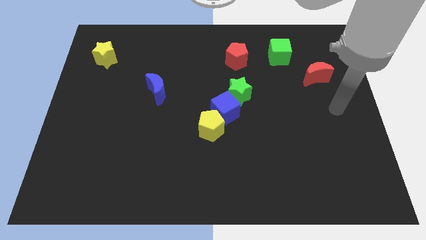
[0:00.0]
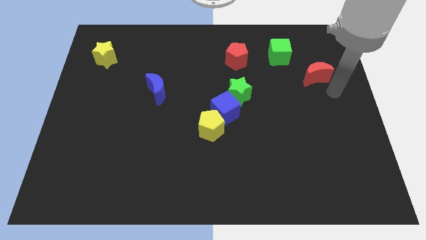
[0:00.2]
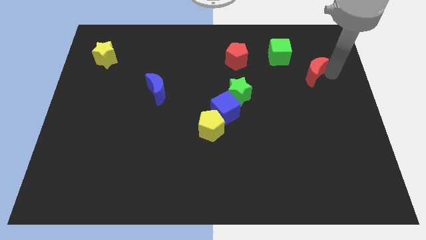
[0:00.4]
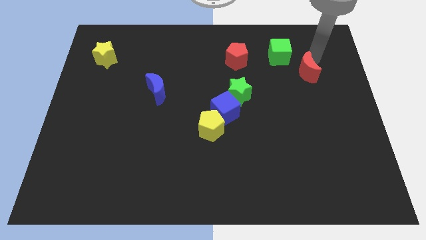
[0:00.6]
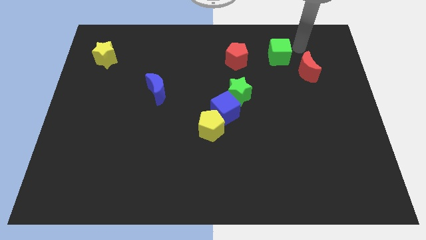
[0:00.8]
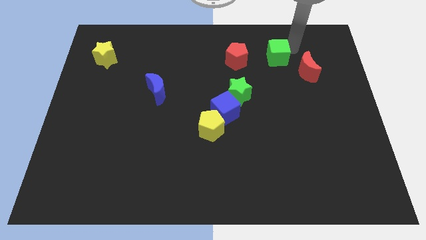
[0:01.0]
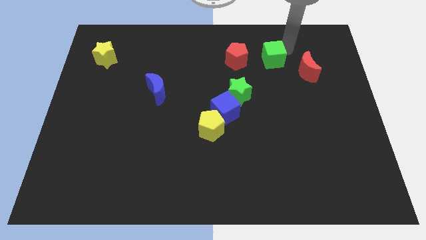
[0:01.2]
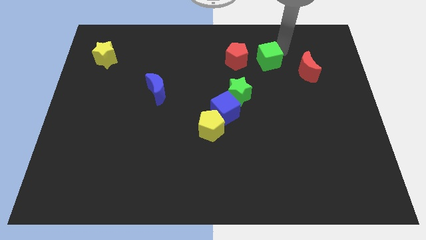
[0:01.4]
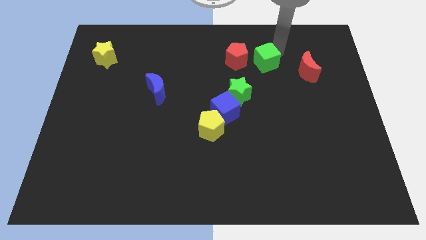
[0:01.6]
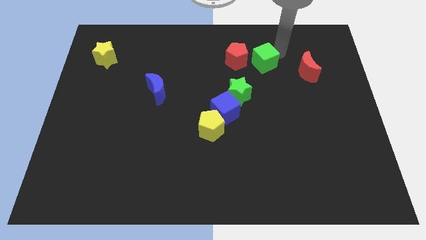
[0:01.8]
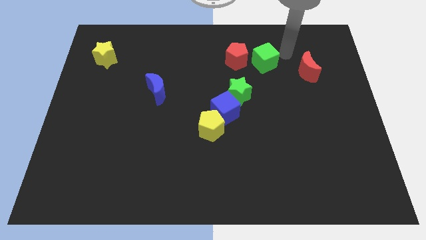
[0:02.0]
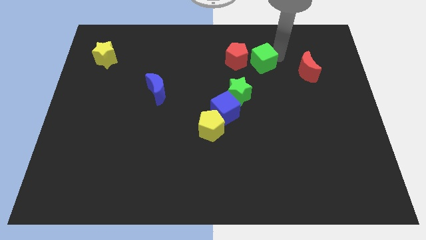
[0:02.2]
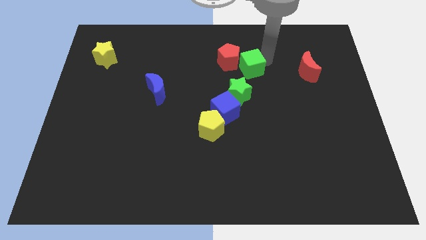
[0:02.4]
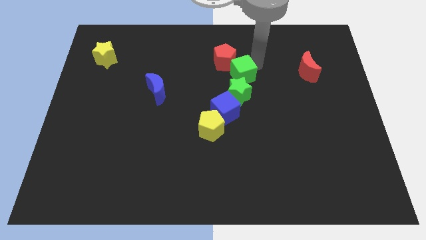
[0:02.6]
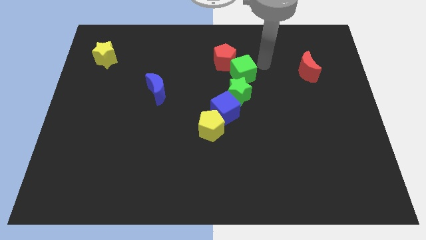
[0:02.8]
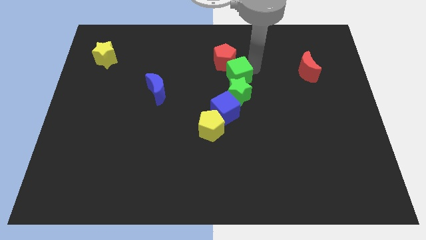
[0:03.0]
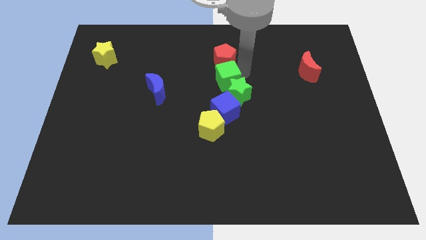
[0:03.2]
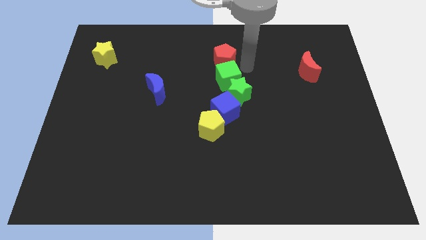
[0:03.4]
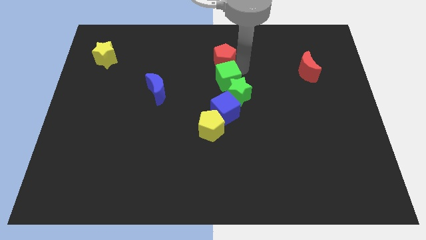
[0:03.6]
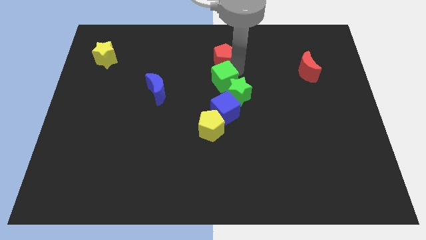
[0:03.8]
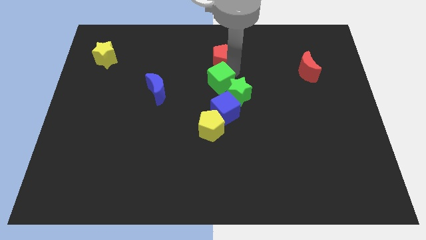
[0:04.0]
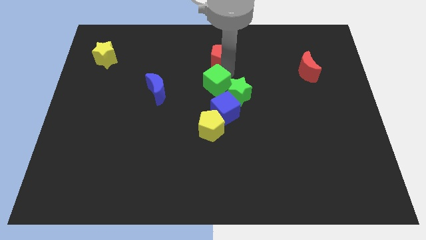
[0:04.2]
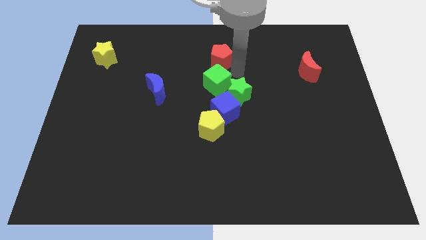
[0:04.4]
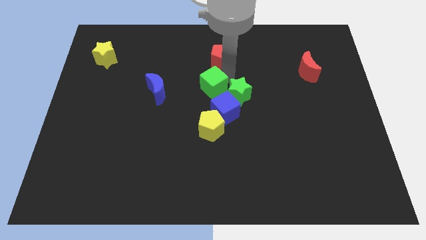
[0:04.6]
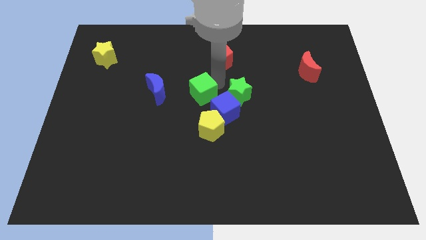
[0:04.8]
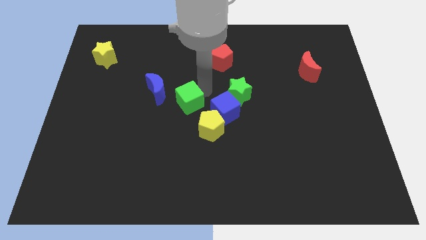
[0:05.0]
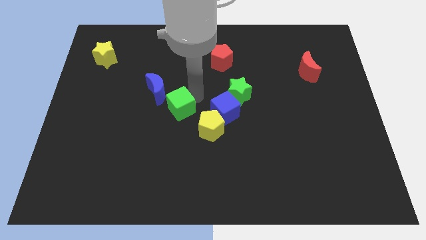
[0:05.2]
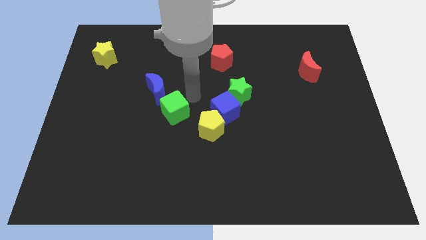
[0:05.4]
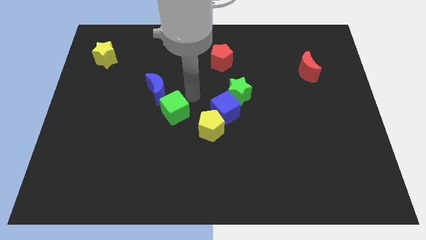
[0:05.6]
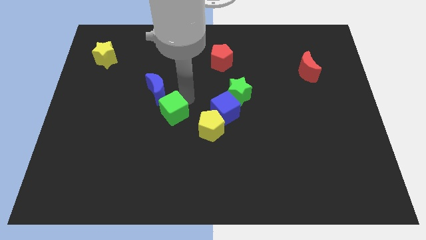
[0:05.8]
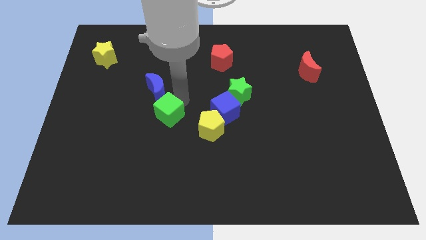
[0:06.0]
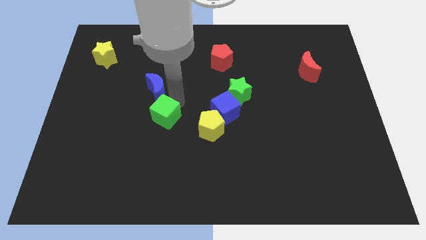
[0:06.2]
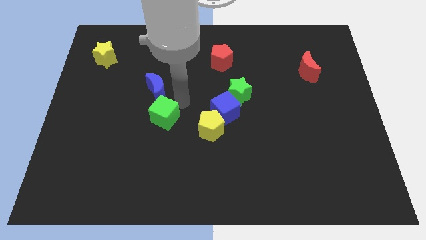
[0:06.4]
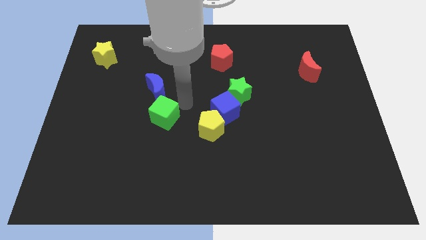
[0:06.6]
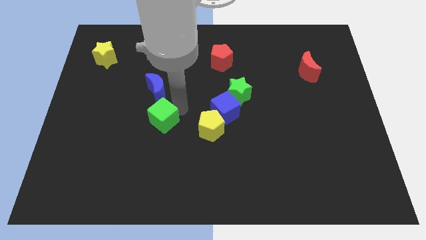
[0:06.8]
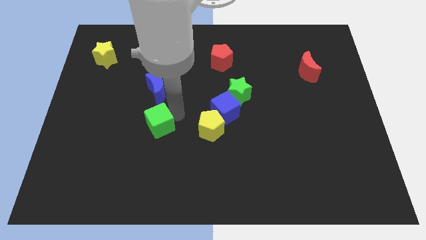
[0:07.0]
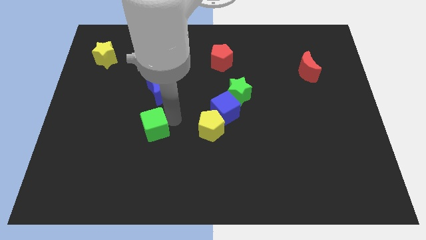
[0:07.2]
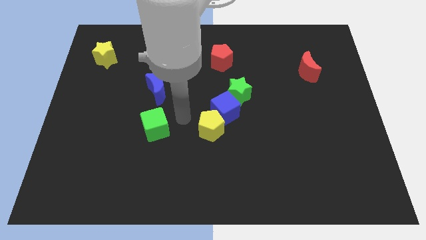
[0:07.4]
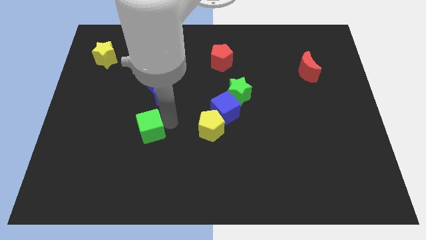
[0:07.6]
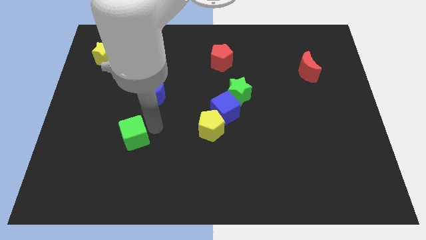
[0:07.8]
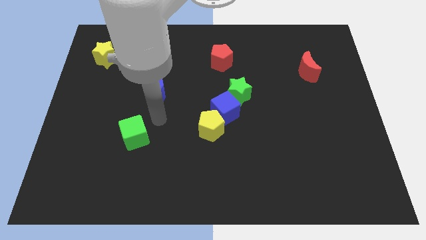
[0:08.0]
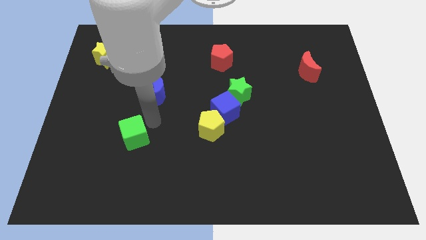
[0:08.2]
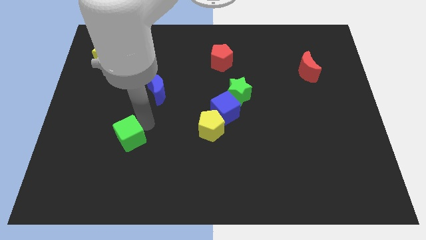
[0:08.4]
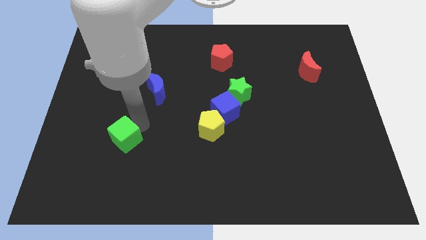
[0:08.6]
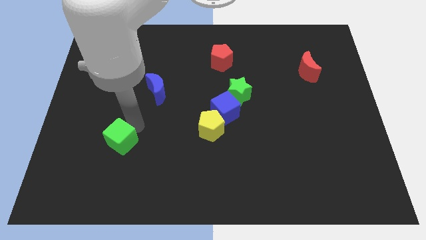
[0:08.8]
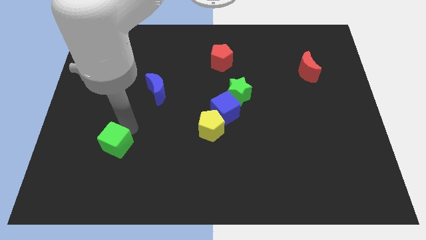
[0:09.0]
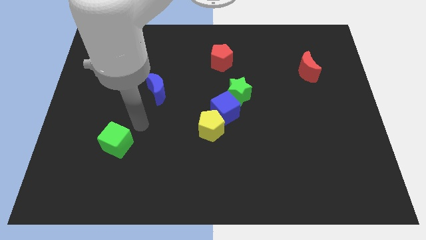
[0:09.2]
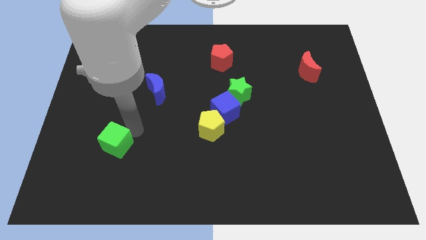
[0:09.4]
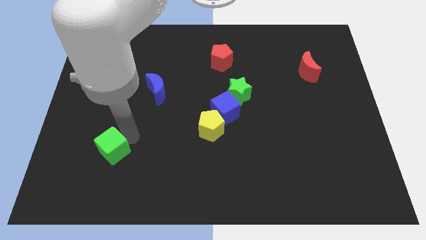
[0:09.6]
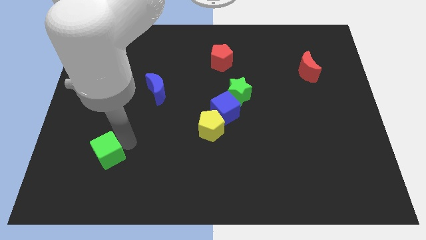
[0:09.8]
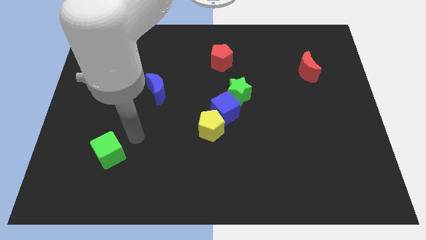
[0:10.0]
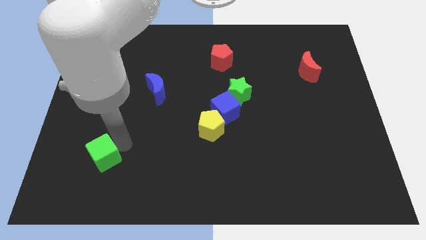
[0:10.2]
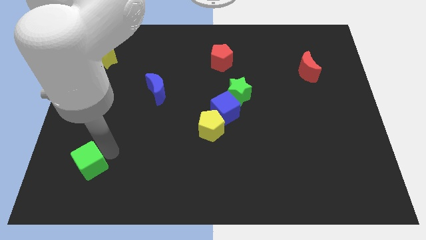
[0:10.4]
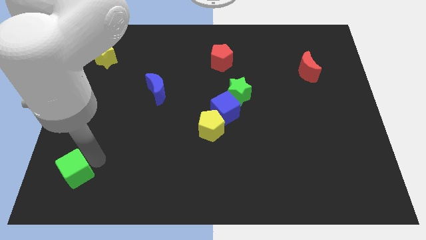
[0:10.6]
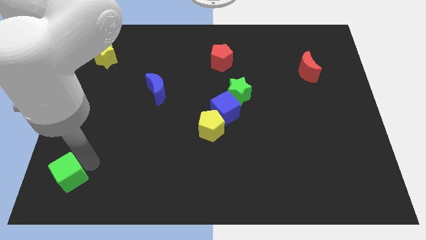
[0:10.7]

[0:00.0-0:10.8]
move the green cube to the lower left corner
